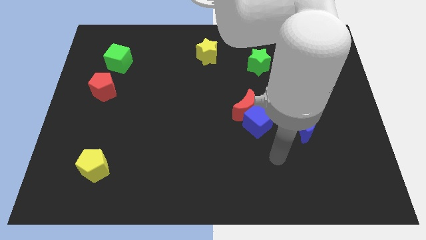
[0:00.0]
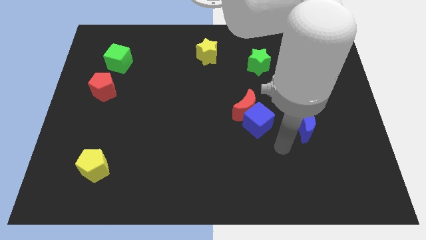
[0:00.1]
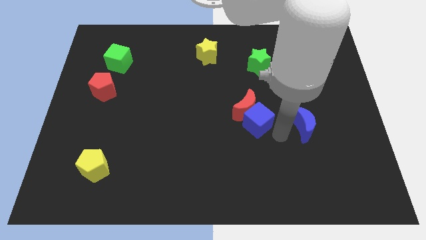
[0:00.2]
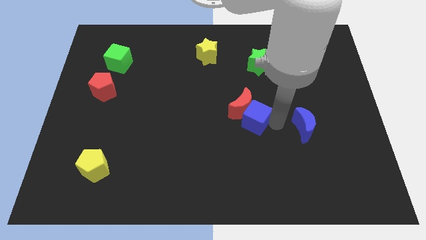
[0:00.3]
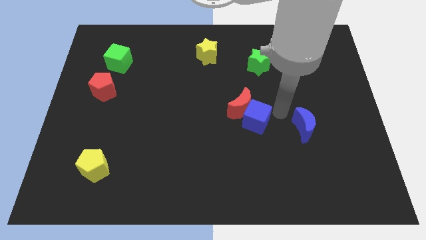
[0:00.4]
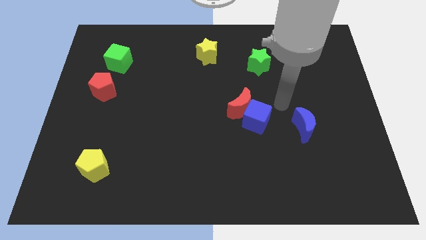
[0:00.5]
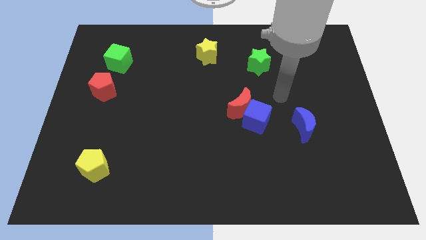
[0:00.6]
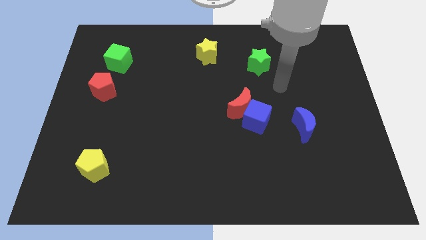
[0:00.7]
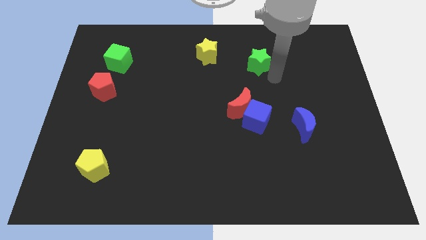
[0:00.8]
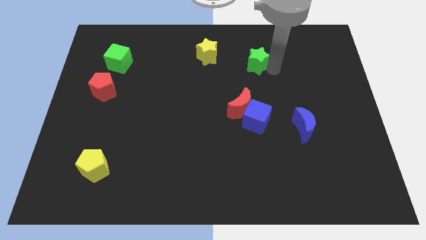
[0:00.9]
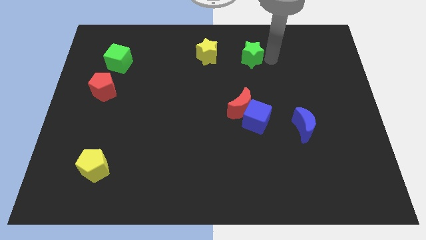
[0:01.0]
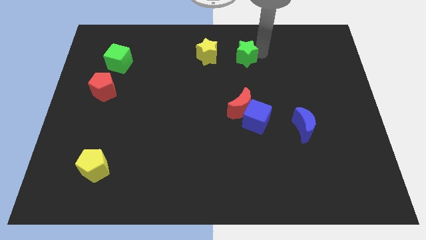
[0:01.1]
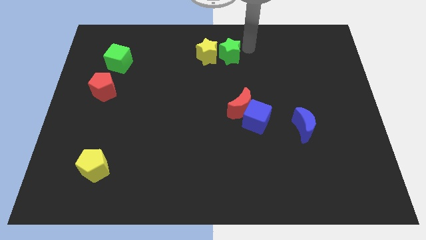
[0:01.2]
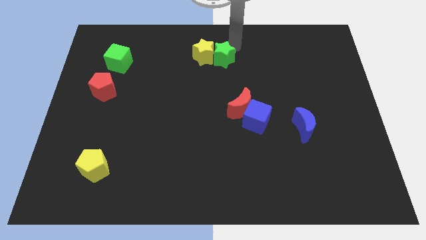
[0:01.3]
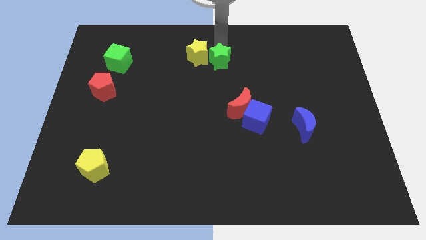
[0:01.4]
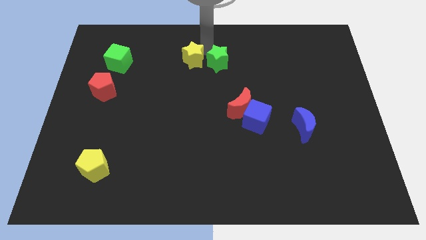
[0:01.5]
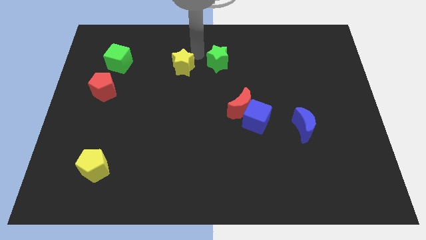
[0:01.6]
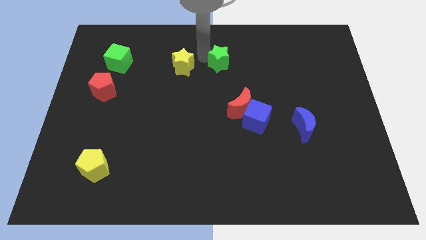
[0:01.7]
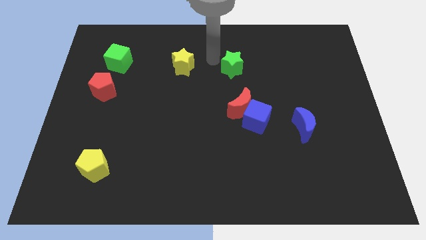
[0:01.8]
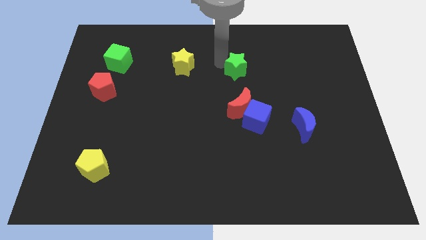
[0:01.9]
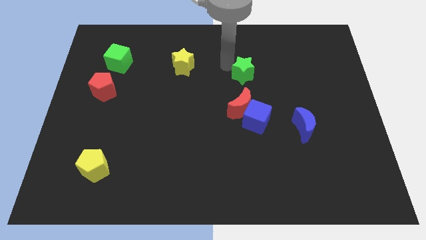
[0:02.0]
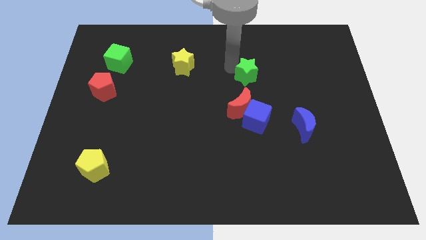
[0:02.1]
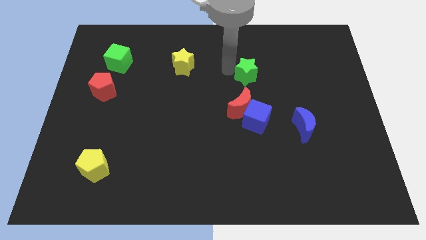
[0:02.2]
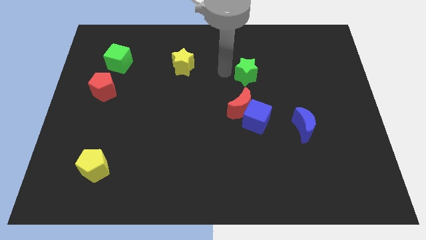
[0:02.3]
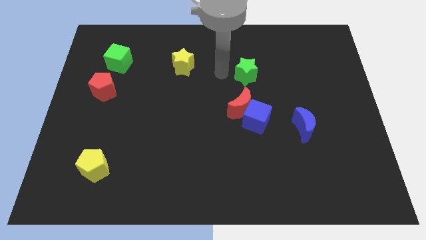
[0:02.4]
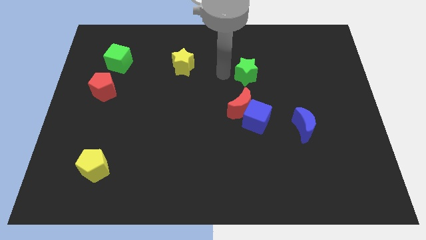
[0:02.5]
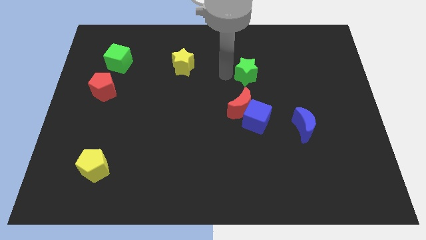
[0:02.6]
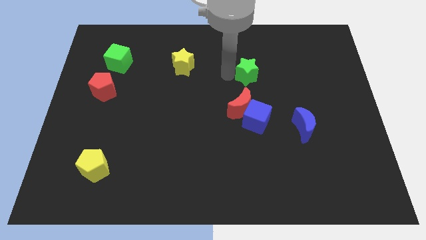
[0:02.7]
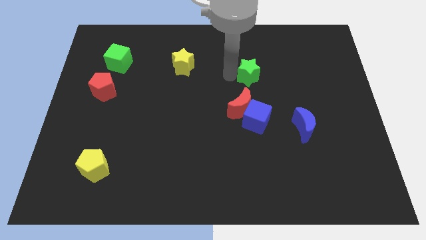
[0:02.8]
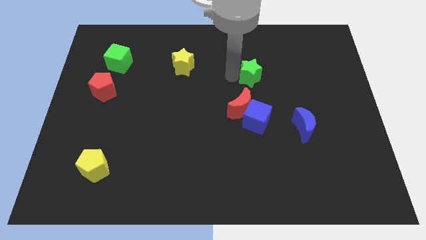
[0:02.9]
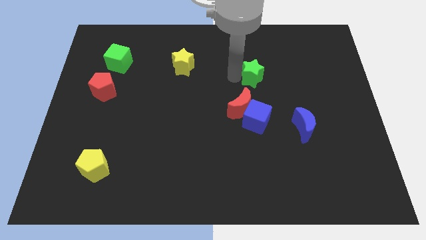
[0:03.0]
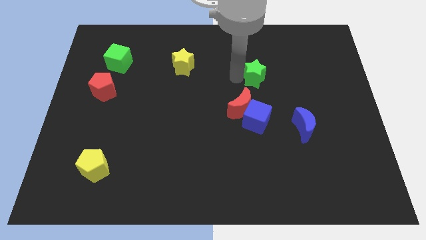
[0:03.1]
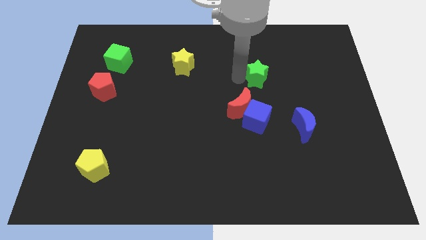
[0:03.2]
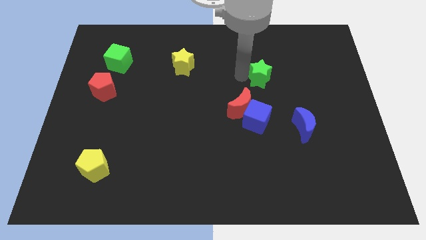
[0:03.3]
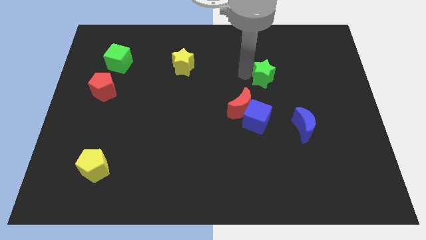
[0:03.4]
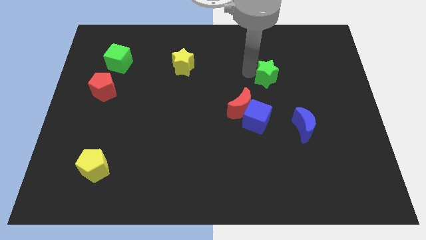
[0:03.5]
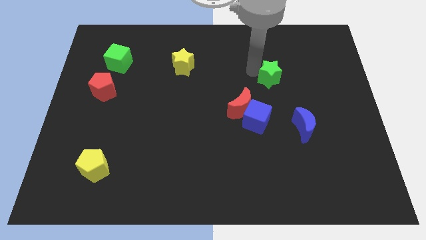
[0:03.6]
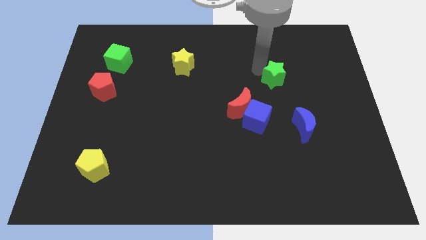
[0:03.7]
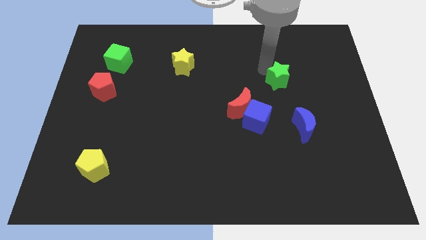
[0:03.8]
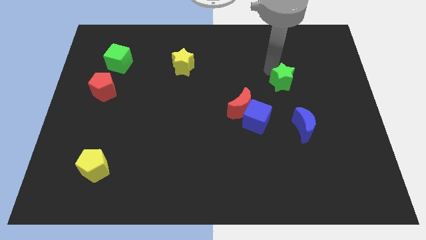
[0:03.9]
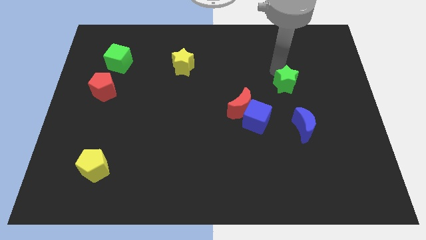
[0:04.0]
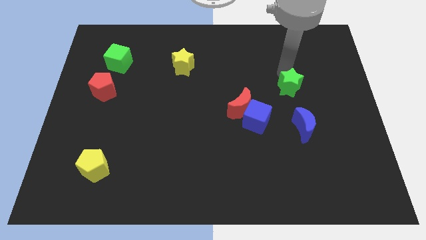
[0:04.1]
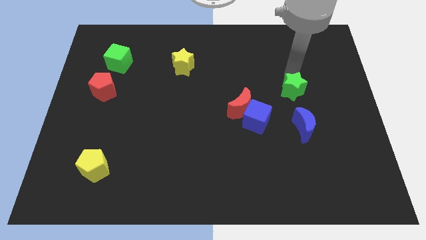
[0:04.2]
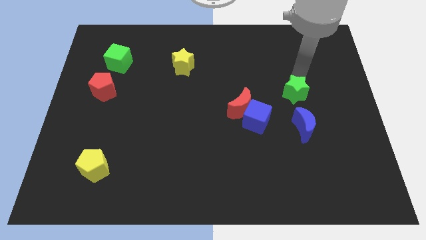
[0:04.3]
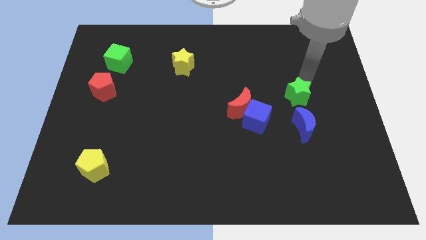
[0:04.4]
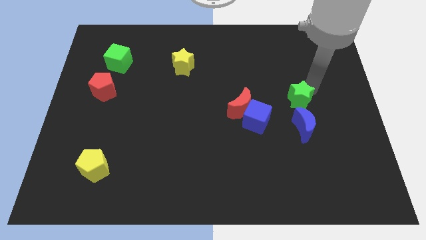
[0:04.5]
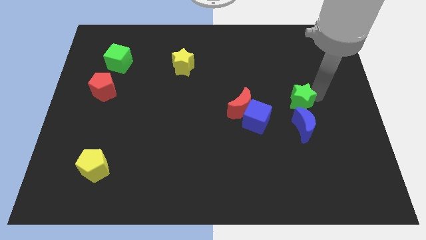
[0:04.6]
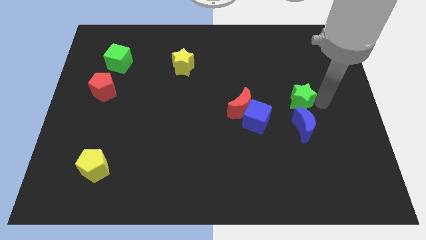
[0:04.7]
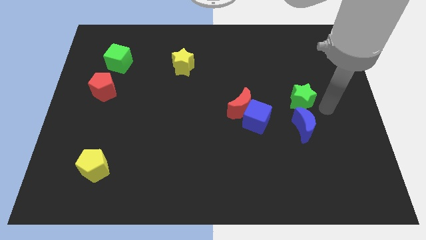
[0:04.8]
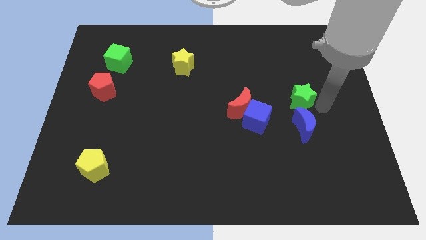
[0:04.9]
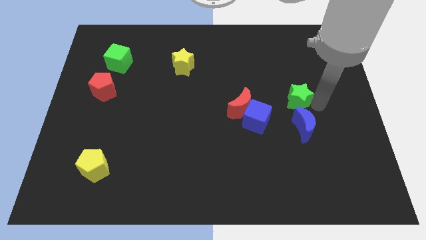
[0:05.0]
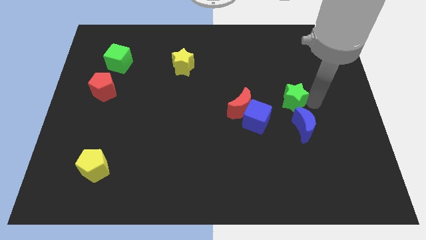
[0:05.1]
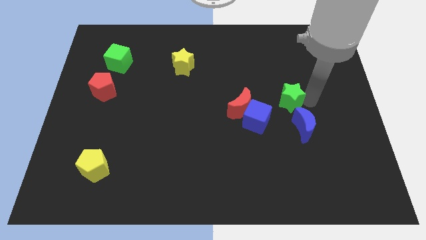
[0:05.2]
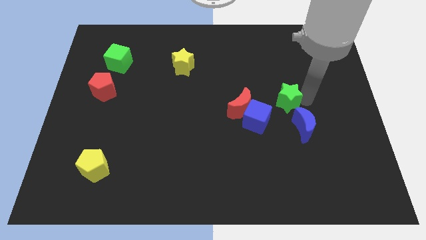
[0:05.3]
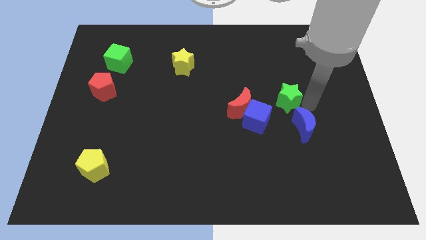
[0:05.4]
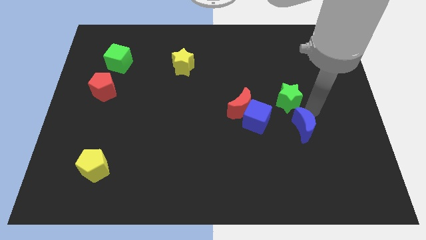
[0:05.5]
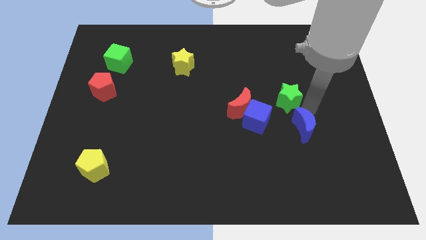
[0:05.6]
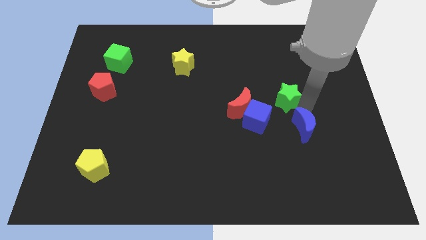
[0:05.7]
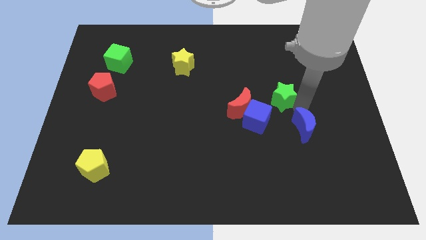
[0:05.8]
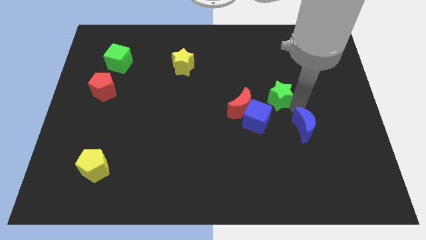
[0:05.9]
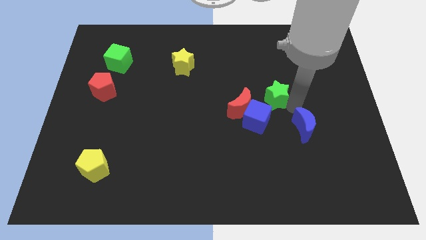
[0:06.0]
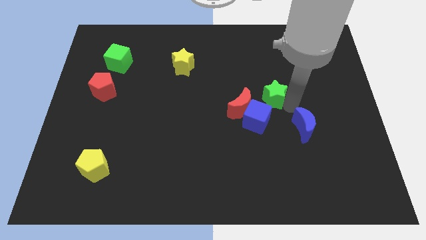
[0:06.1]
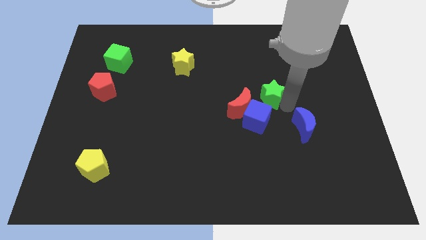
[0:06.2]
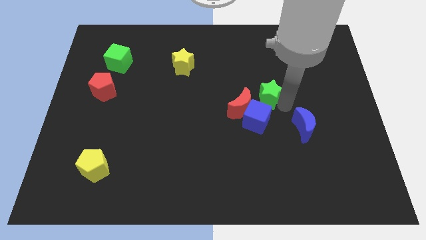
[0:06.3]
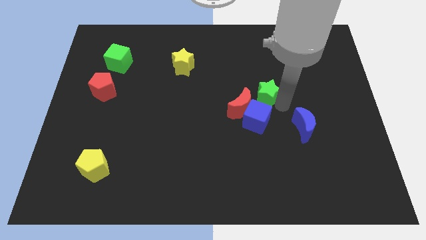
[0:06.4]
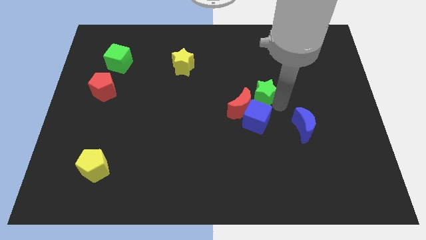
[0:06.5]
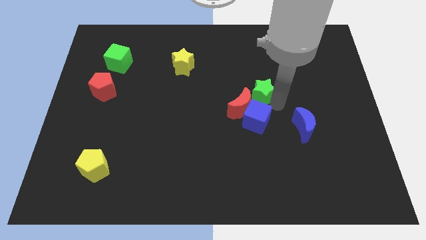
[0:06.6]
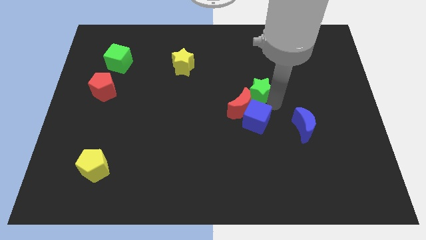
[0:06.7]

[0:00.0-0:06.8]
move the green star close to the red moon

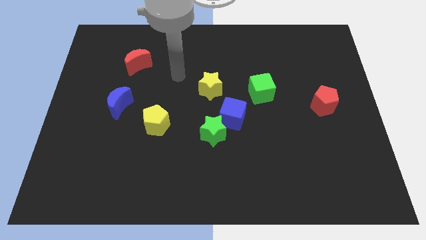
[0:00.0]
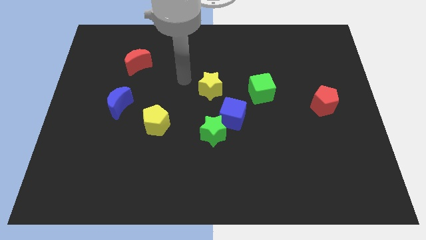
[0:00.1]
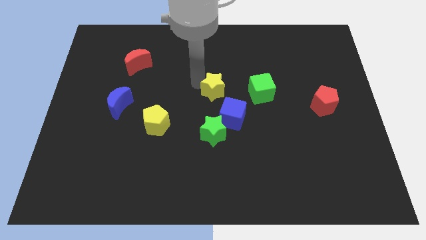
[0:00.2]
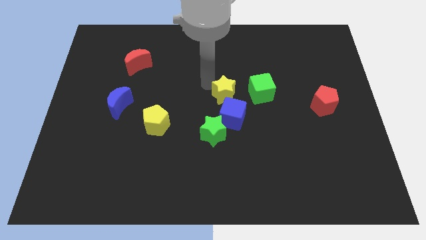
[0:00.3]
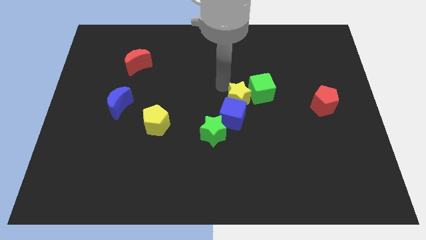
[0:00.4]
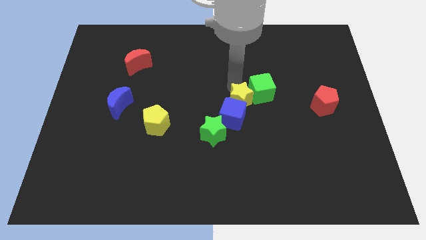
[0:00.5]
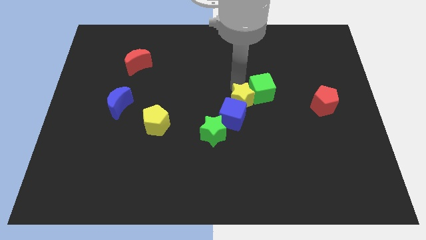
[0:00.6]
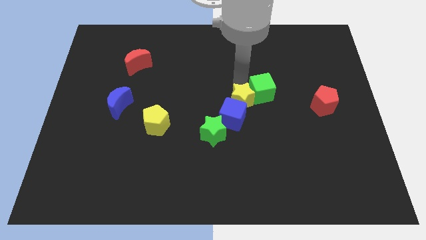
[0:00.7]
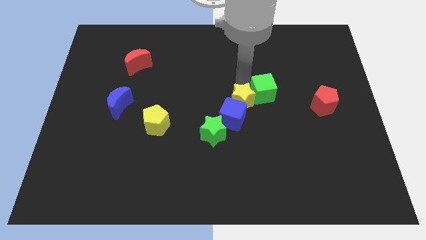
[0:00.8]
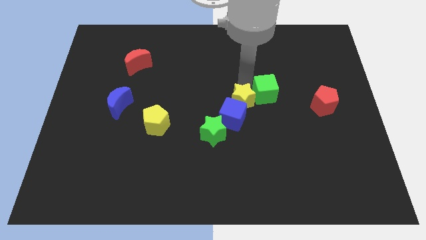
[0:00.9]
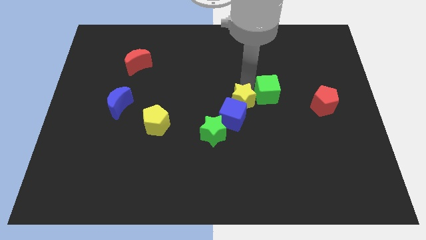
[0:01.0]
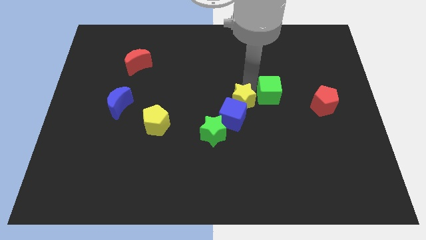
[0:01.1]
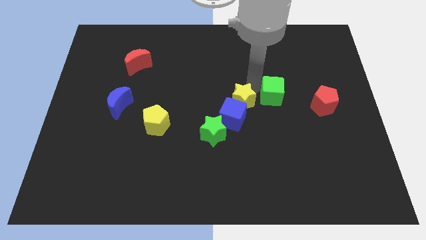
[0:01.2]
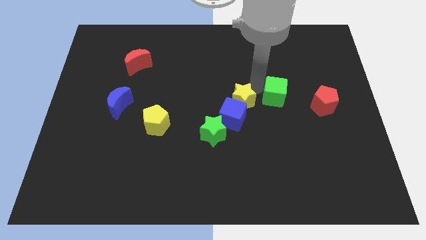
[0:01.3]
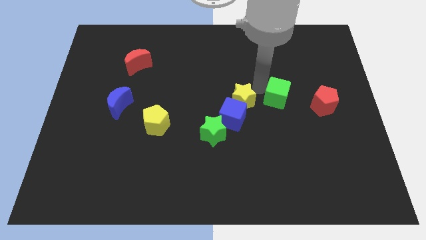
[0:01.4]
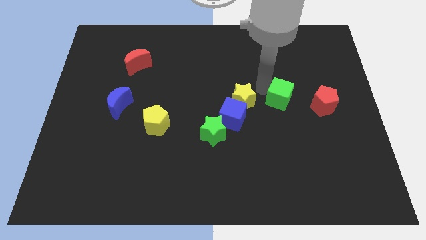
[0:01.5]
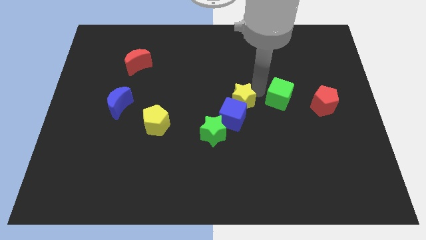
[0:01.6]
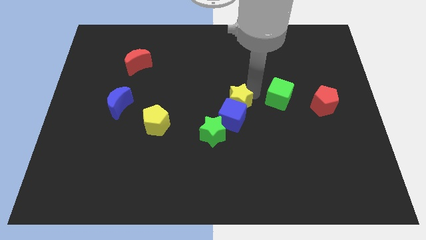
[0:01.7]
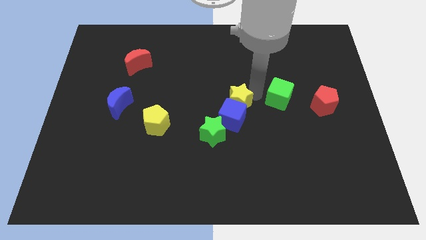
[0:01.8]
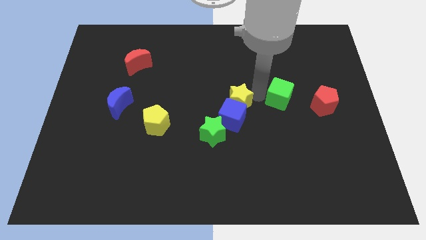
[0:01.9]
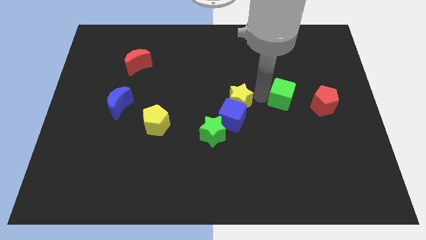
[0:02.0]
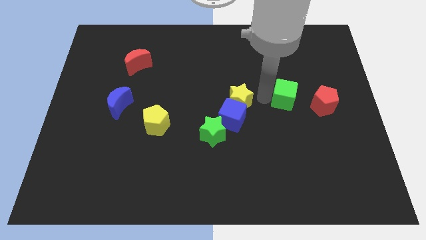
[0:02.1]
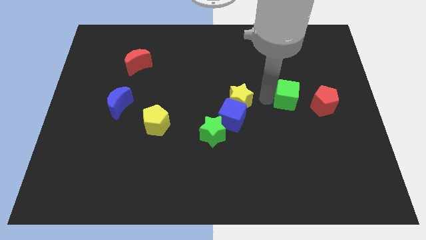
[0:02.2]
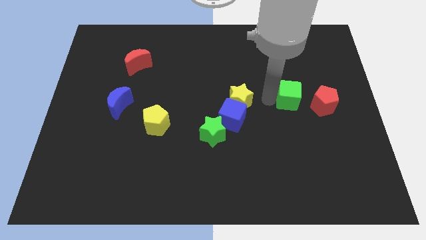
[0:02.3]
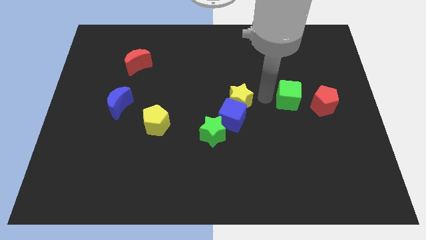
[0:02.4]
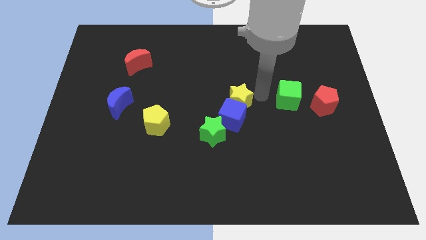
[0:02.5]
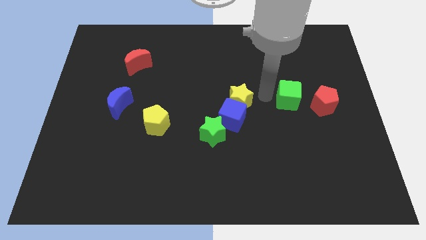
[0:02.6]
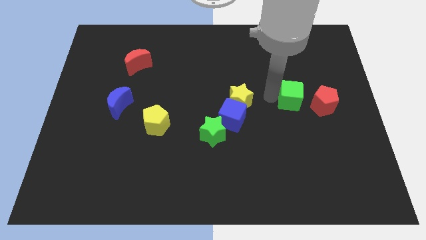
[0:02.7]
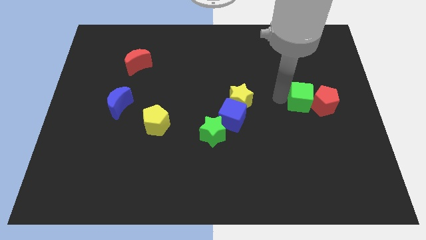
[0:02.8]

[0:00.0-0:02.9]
put the green cube next to the red pentagon
